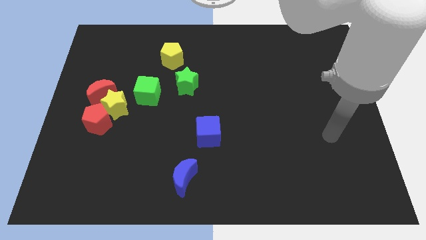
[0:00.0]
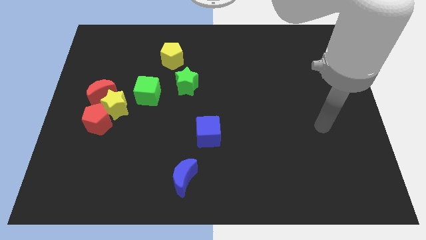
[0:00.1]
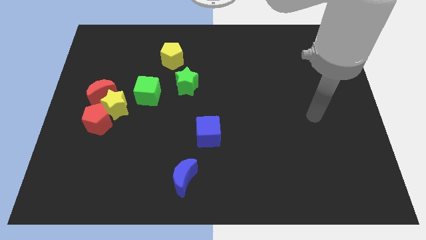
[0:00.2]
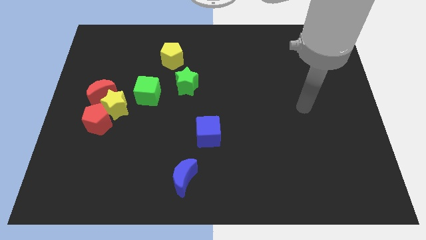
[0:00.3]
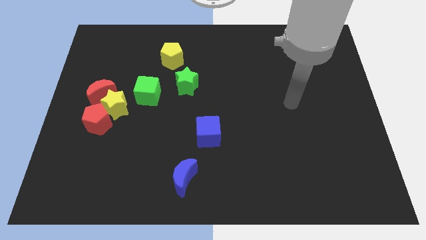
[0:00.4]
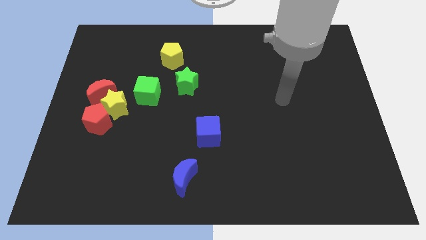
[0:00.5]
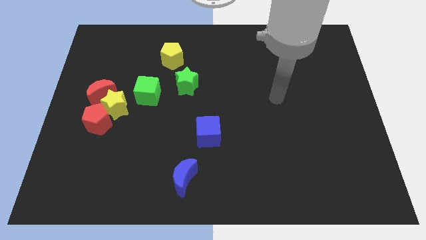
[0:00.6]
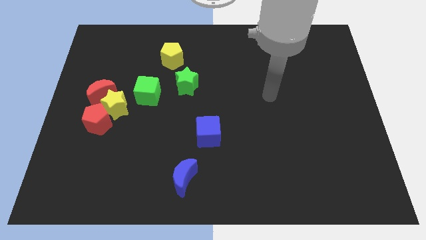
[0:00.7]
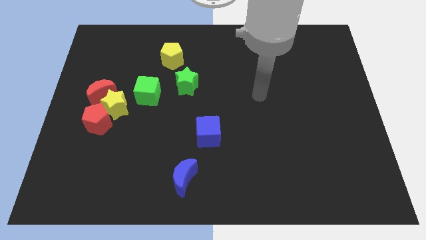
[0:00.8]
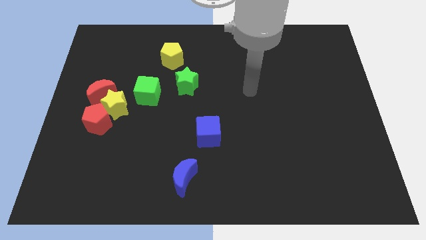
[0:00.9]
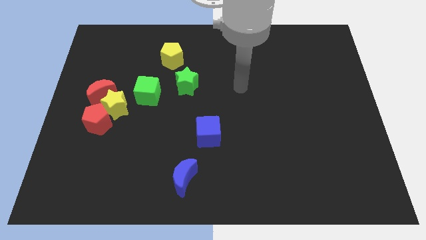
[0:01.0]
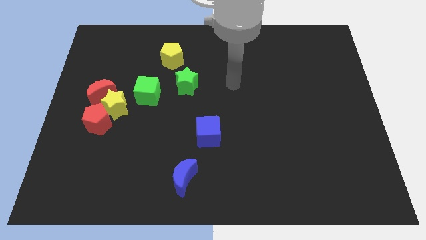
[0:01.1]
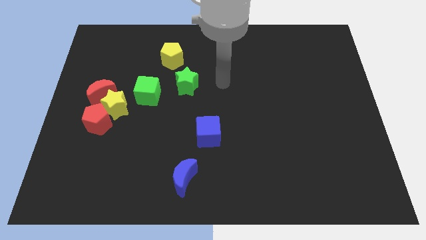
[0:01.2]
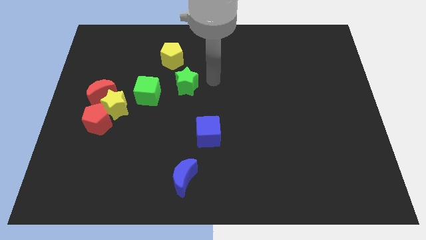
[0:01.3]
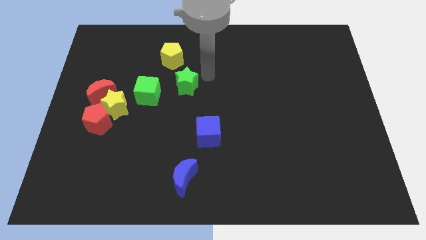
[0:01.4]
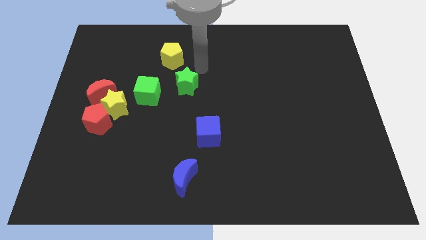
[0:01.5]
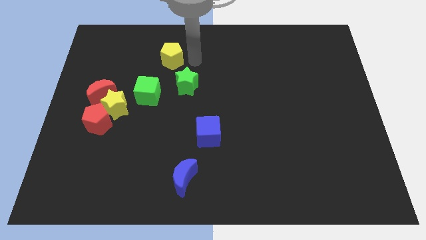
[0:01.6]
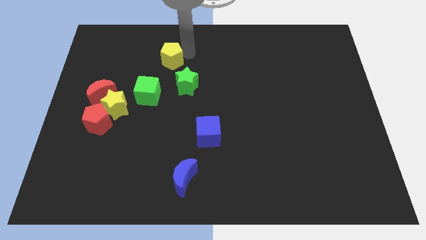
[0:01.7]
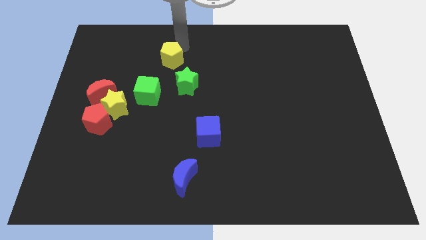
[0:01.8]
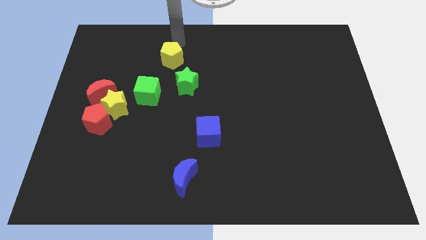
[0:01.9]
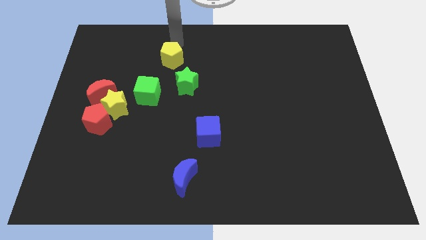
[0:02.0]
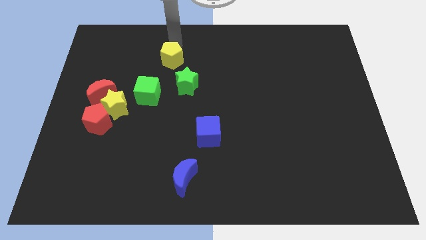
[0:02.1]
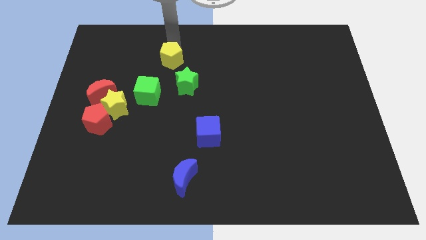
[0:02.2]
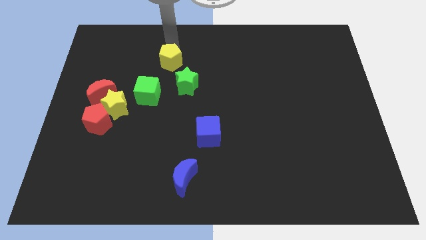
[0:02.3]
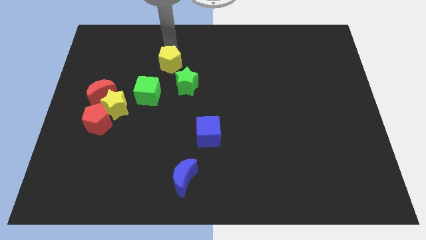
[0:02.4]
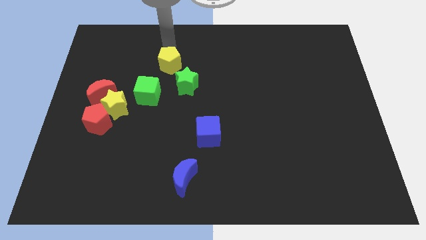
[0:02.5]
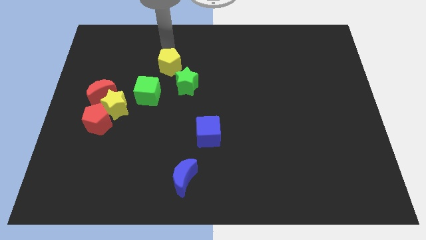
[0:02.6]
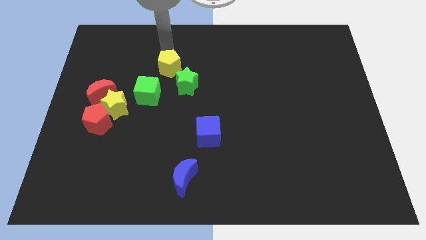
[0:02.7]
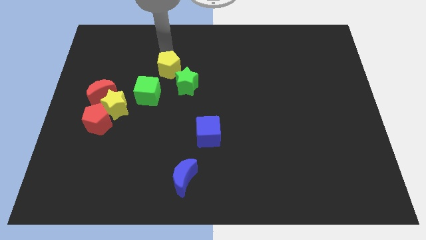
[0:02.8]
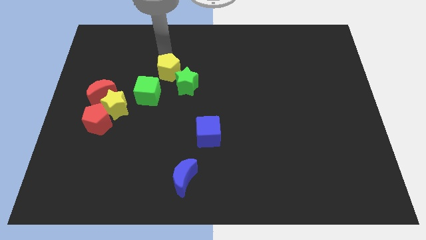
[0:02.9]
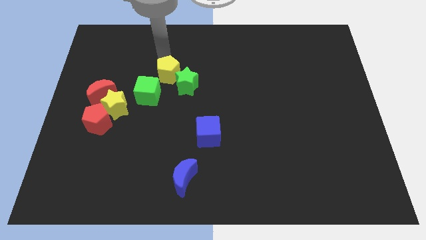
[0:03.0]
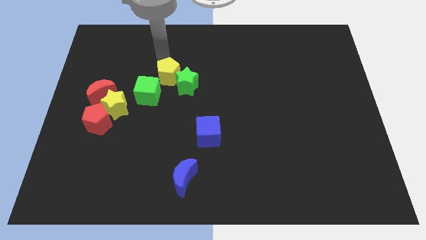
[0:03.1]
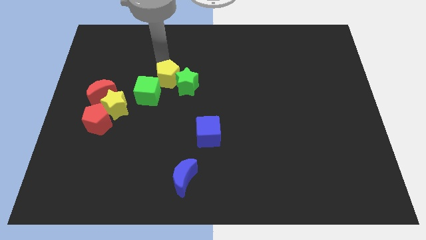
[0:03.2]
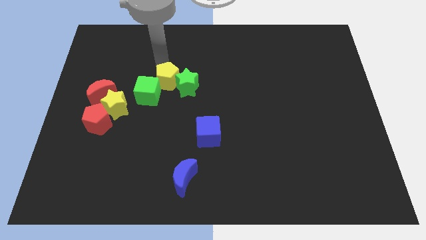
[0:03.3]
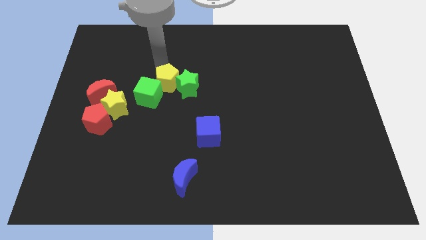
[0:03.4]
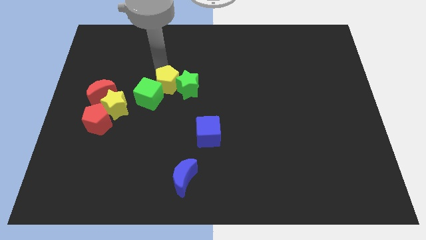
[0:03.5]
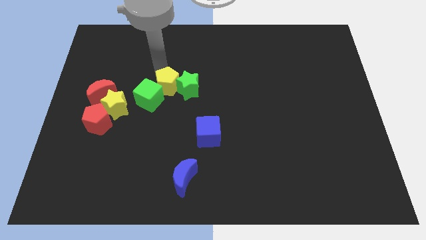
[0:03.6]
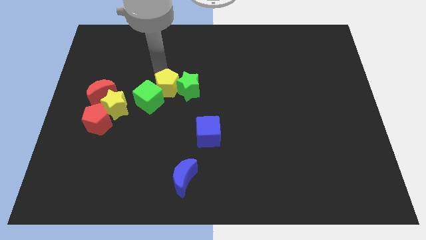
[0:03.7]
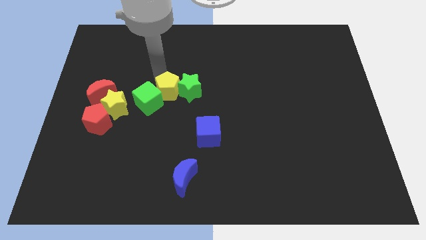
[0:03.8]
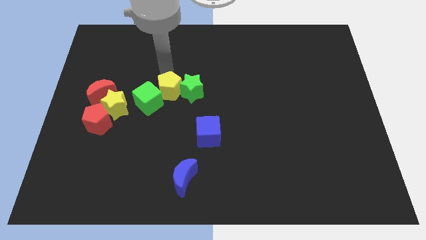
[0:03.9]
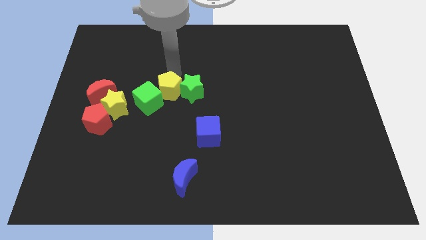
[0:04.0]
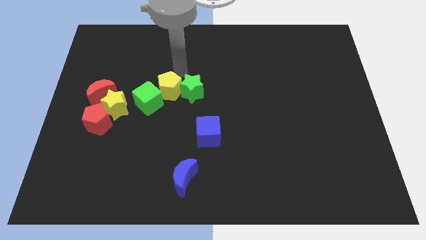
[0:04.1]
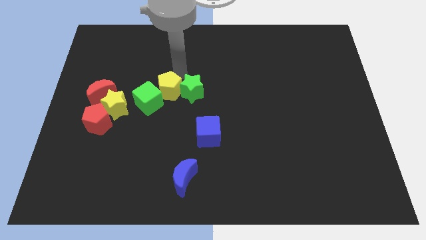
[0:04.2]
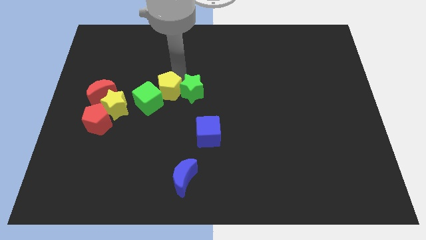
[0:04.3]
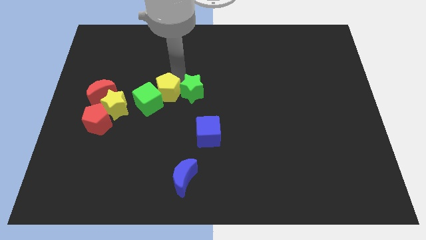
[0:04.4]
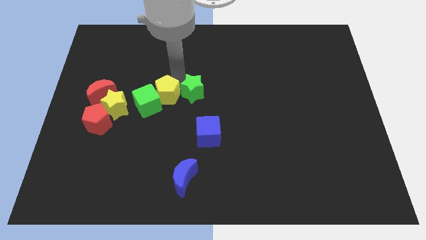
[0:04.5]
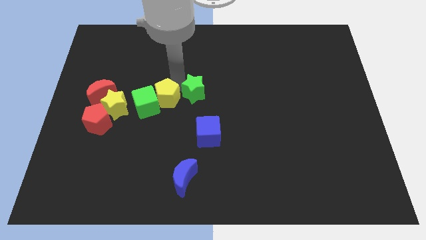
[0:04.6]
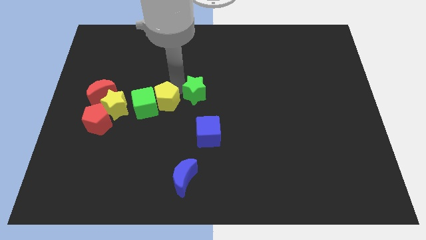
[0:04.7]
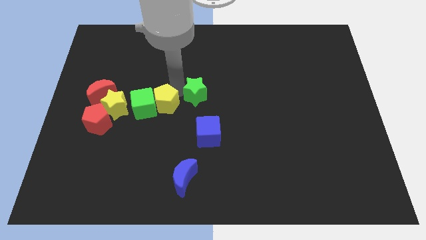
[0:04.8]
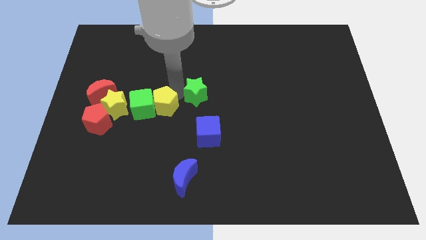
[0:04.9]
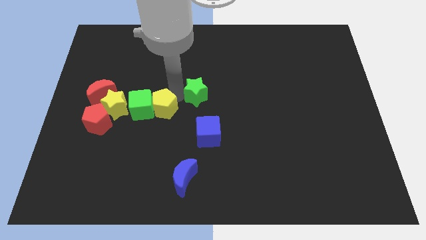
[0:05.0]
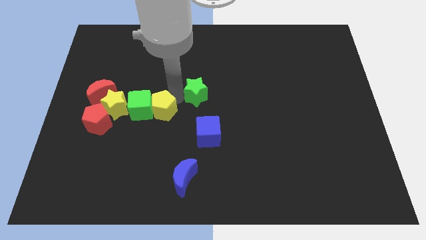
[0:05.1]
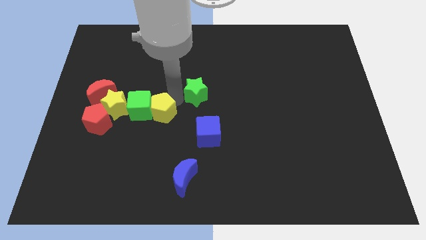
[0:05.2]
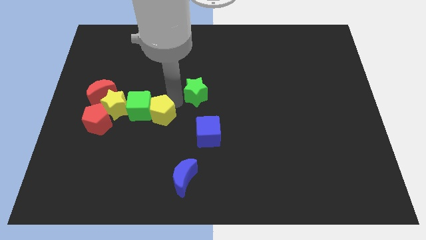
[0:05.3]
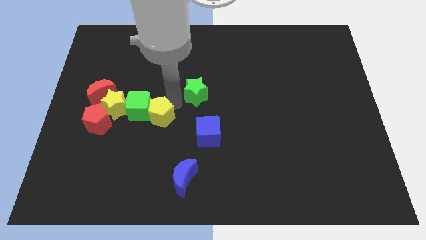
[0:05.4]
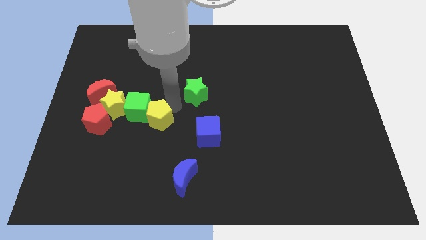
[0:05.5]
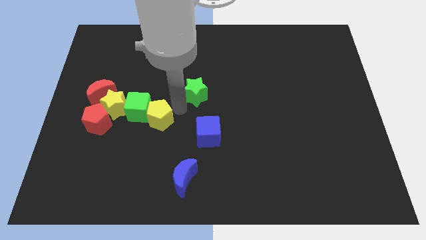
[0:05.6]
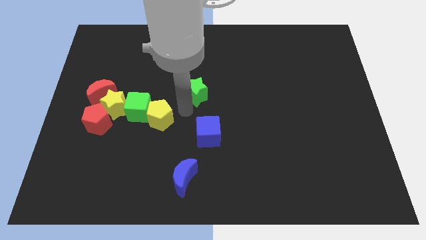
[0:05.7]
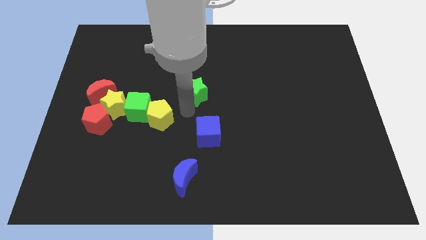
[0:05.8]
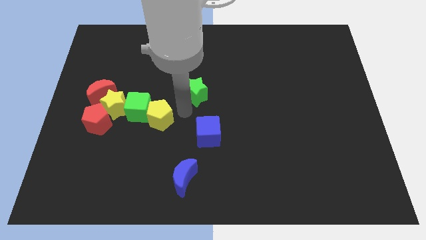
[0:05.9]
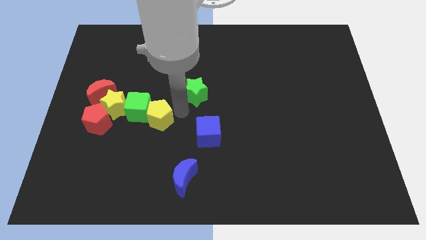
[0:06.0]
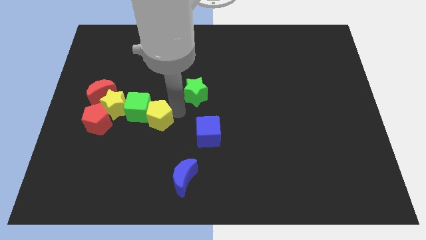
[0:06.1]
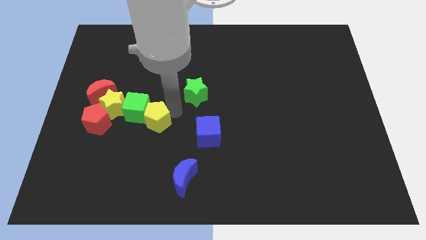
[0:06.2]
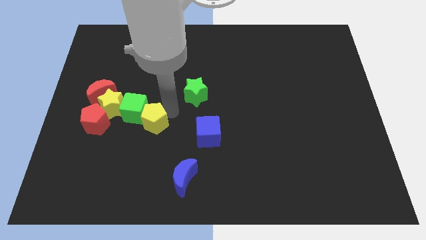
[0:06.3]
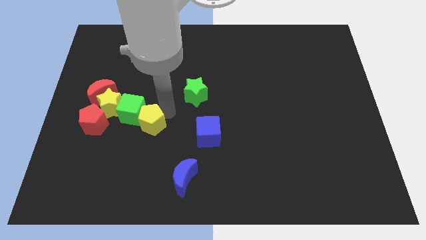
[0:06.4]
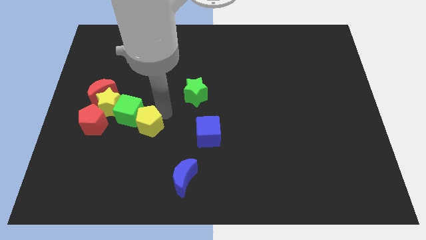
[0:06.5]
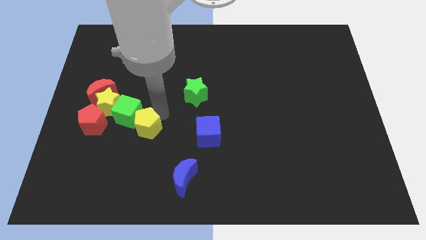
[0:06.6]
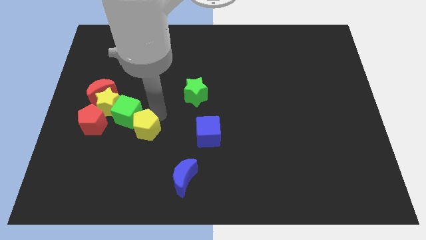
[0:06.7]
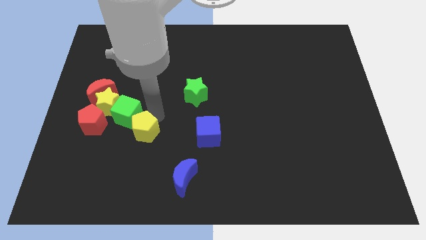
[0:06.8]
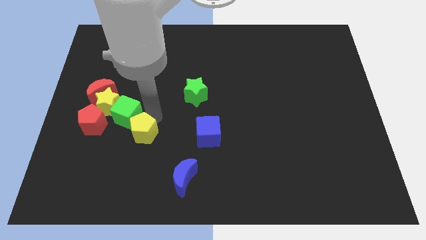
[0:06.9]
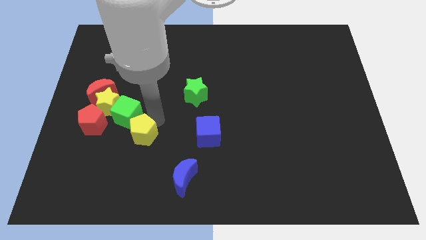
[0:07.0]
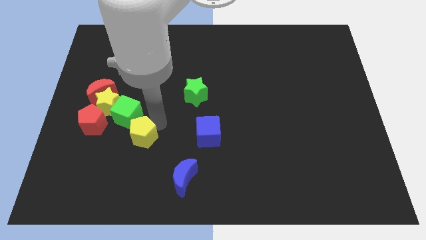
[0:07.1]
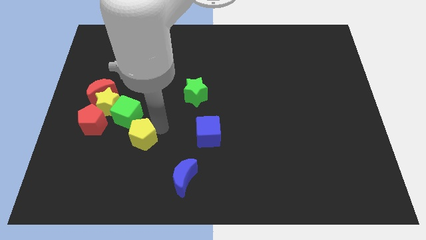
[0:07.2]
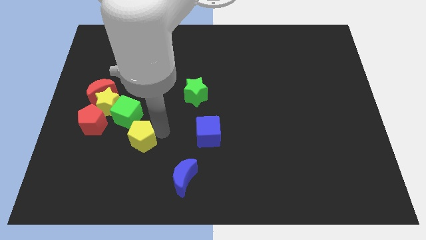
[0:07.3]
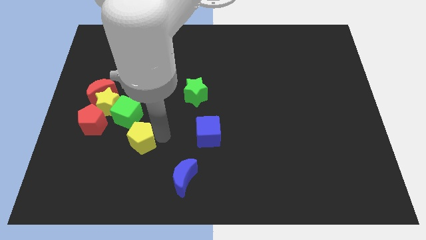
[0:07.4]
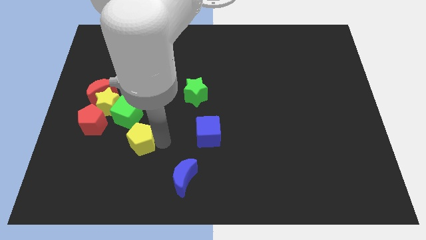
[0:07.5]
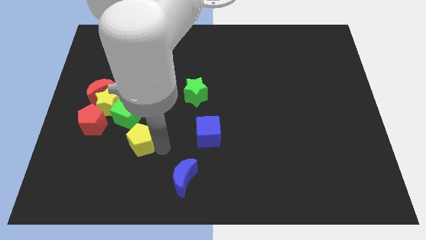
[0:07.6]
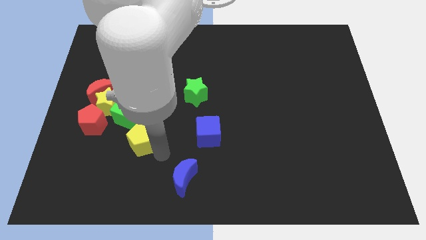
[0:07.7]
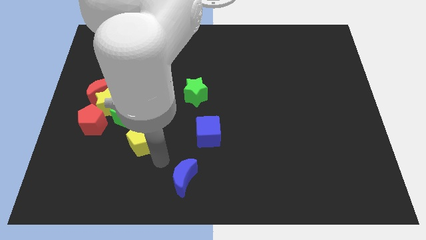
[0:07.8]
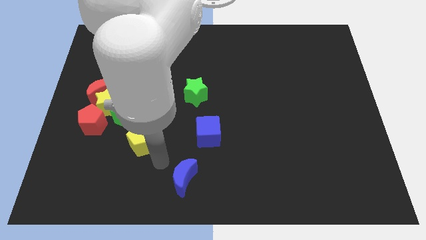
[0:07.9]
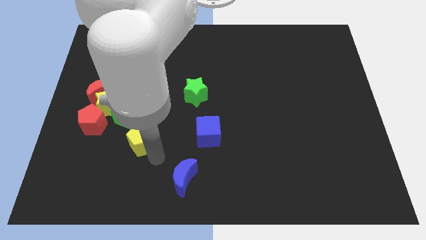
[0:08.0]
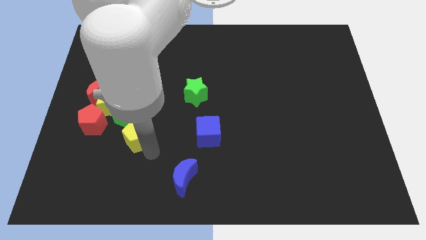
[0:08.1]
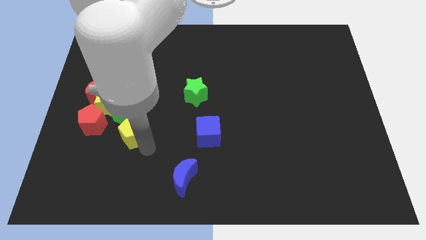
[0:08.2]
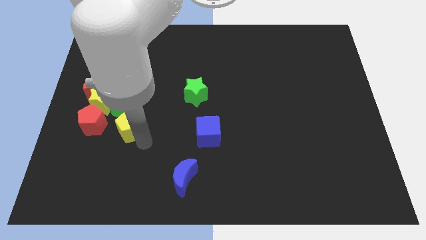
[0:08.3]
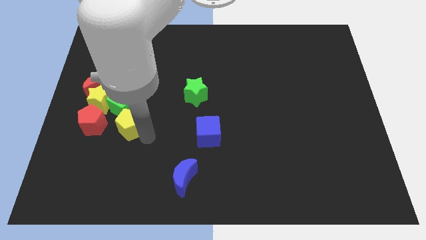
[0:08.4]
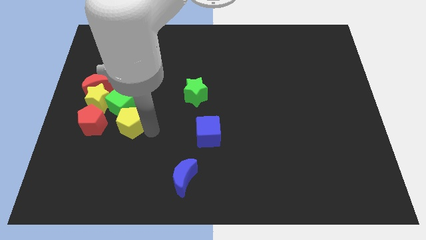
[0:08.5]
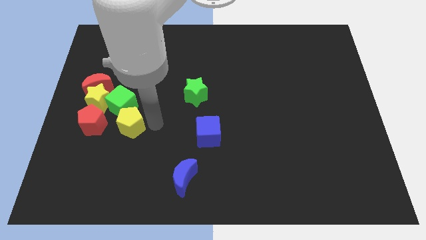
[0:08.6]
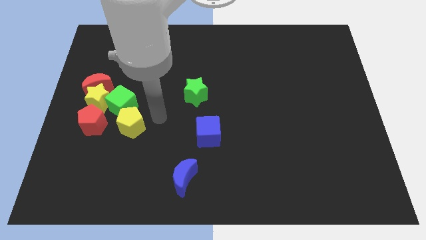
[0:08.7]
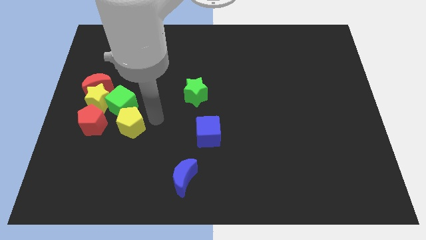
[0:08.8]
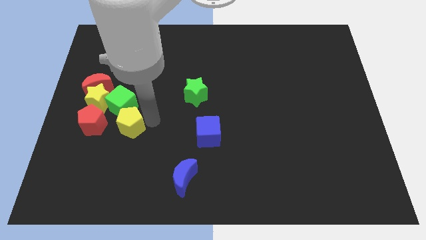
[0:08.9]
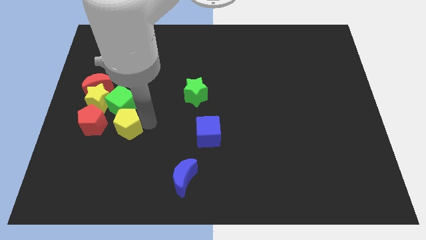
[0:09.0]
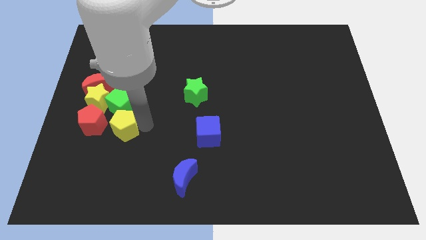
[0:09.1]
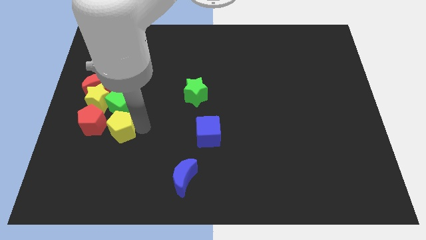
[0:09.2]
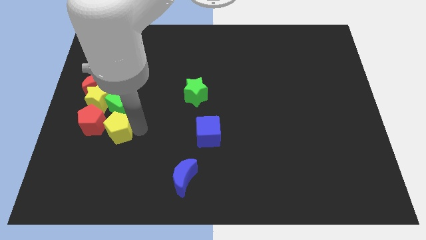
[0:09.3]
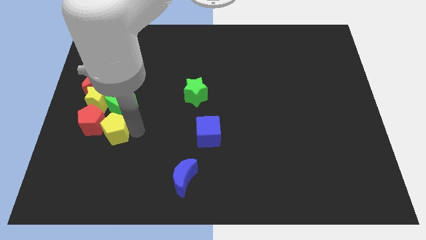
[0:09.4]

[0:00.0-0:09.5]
slide the yellow pentagon to the bottom side of the yellow star
